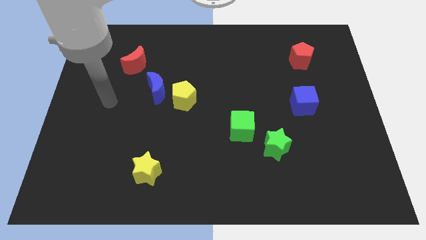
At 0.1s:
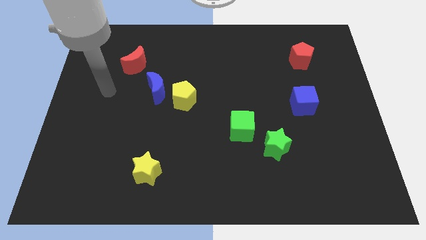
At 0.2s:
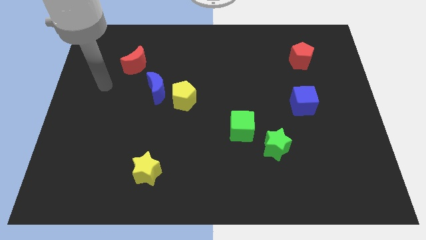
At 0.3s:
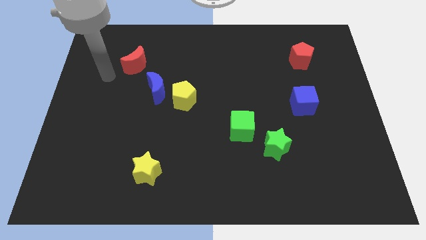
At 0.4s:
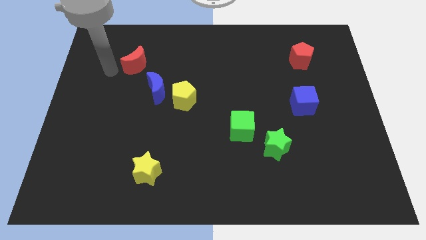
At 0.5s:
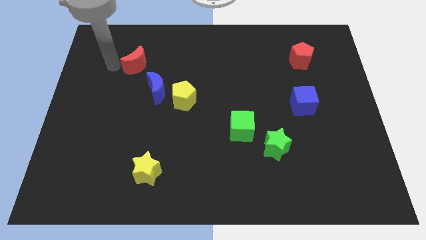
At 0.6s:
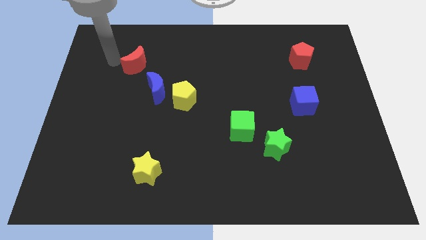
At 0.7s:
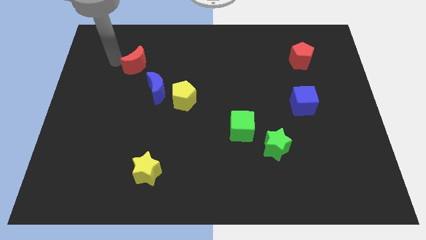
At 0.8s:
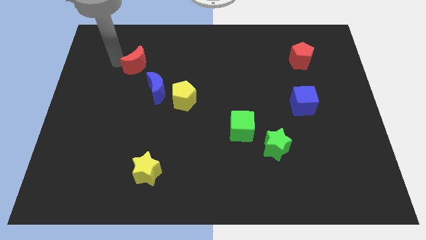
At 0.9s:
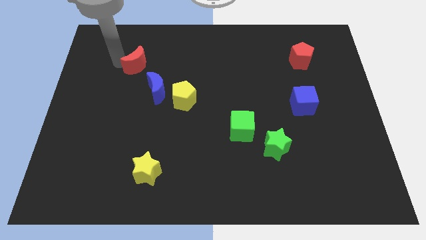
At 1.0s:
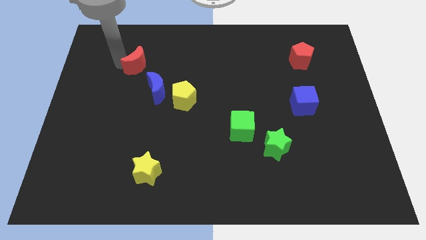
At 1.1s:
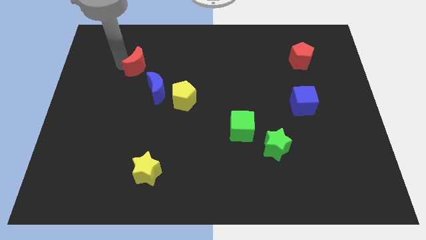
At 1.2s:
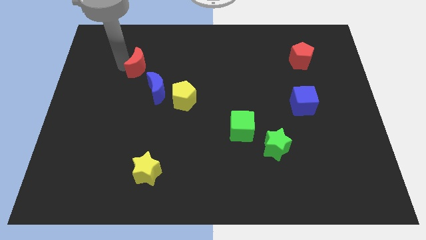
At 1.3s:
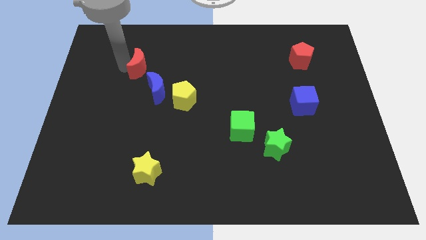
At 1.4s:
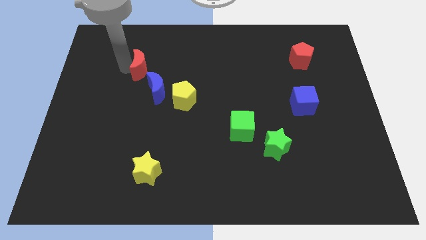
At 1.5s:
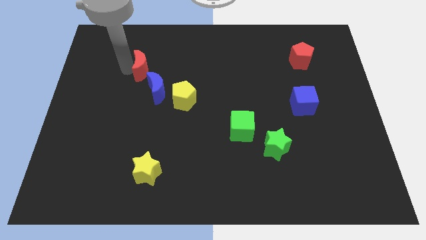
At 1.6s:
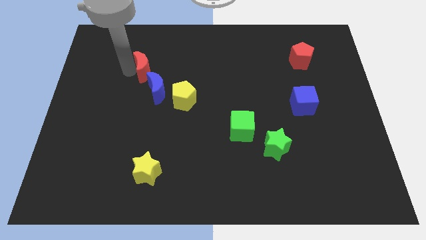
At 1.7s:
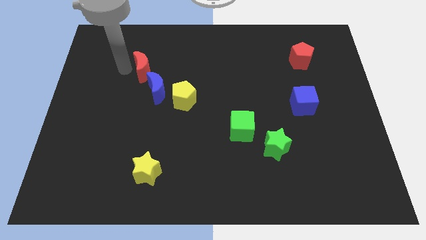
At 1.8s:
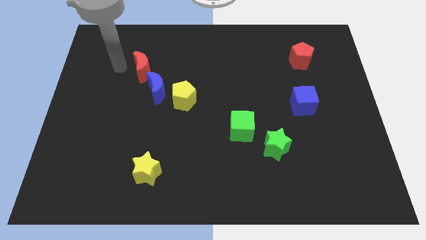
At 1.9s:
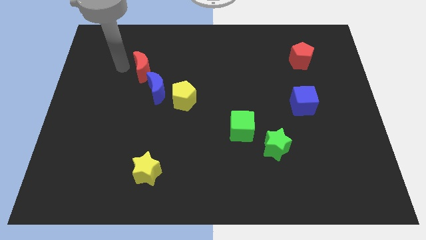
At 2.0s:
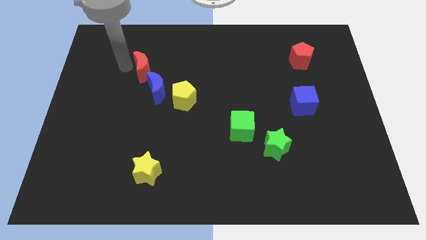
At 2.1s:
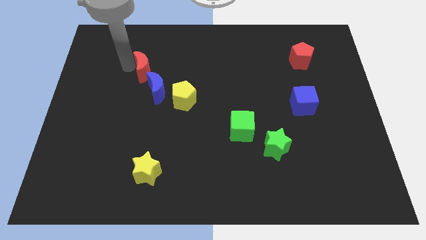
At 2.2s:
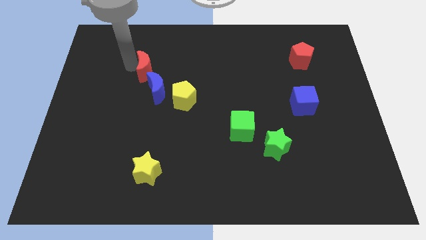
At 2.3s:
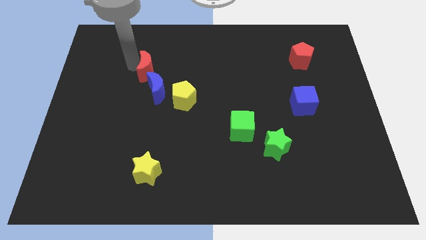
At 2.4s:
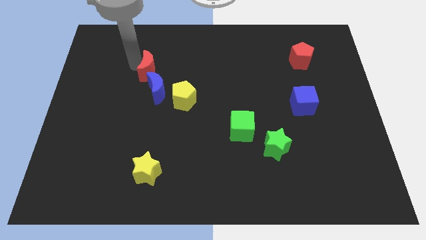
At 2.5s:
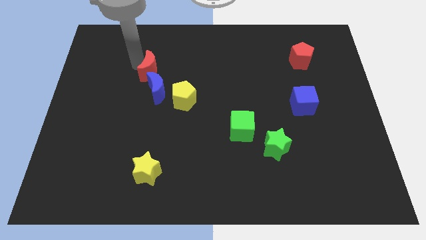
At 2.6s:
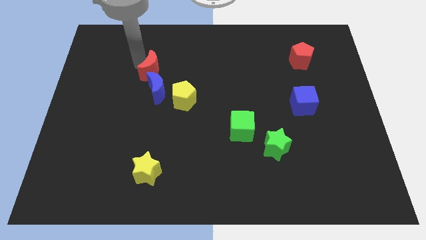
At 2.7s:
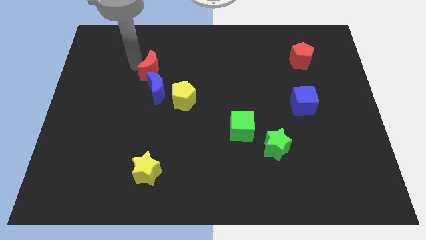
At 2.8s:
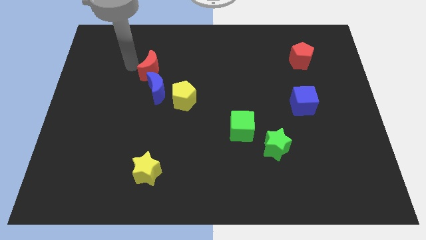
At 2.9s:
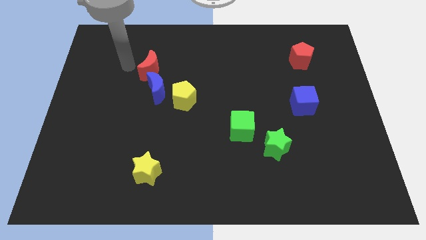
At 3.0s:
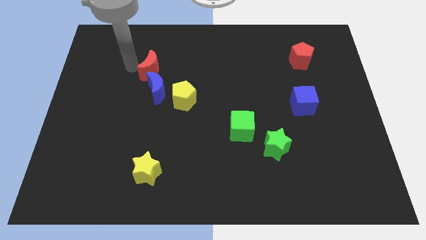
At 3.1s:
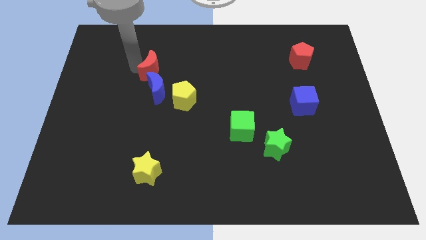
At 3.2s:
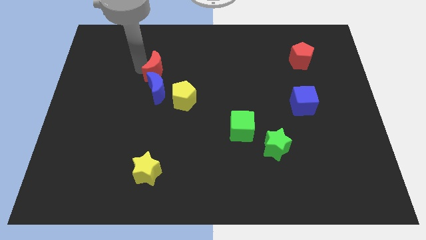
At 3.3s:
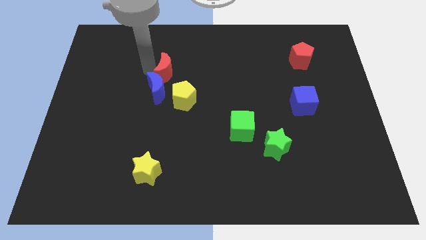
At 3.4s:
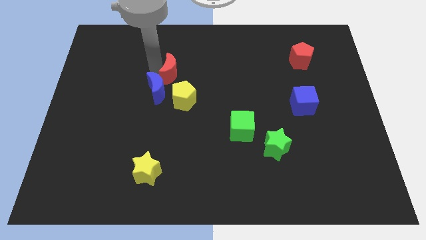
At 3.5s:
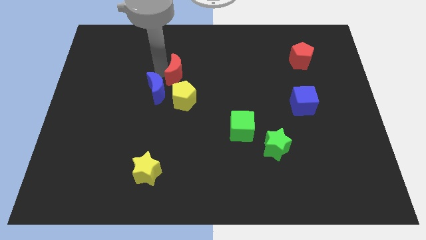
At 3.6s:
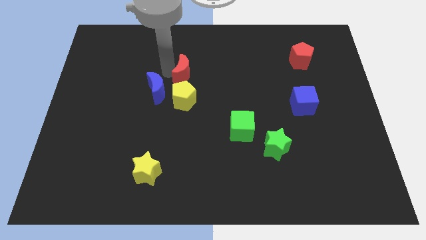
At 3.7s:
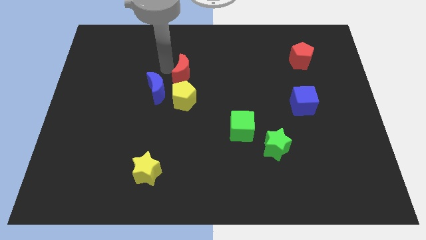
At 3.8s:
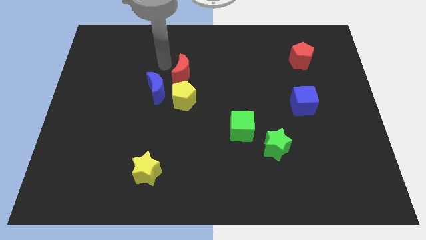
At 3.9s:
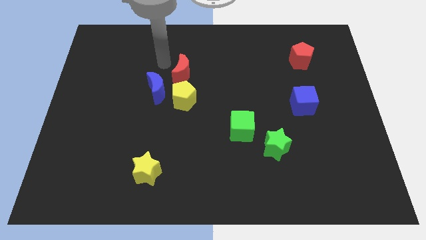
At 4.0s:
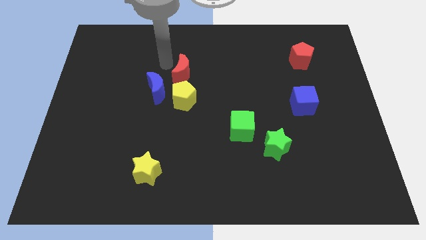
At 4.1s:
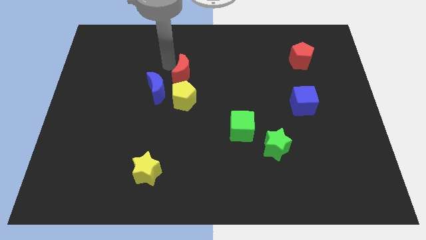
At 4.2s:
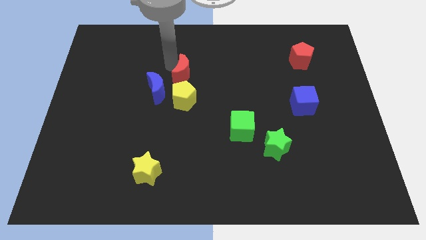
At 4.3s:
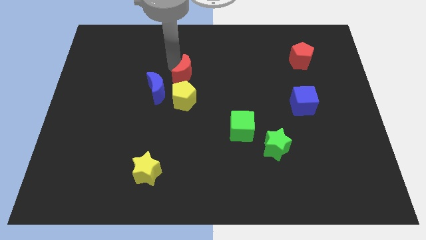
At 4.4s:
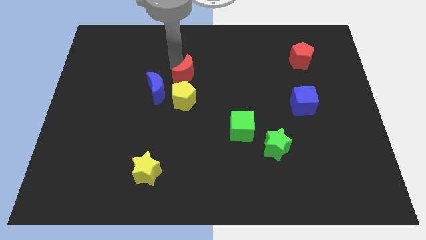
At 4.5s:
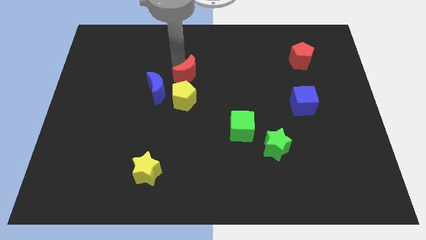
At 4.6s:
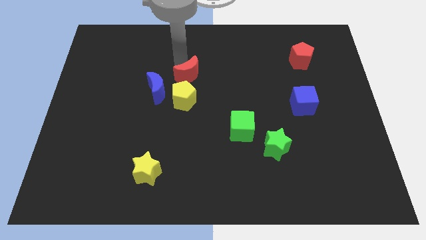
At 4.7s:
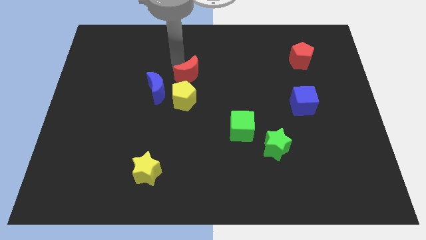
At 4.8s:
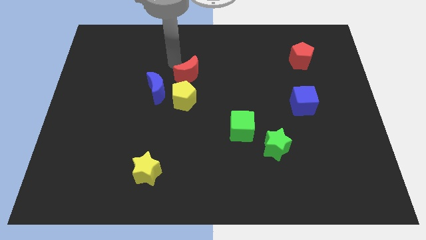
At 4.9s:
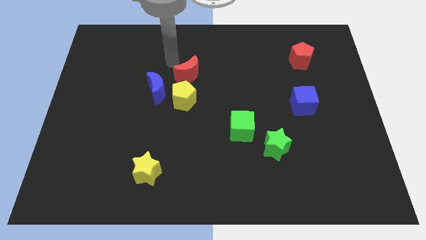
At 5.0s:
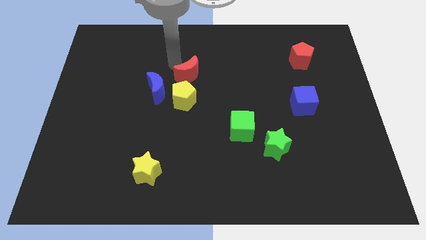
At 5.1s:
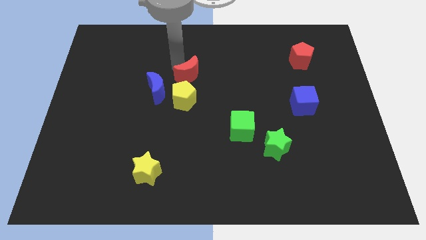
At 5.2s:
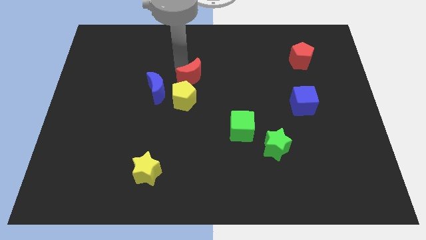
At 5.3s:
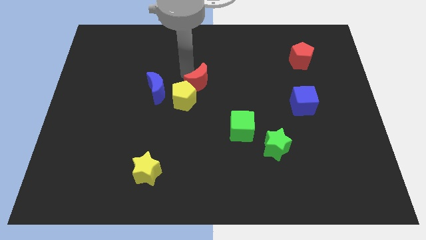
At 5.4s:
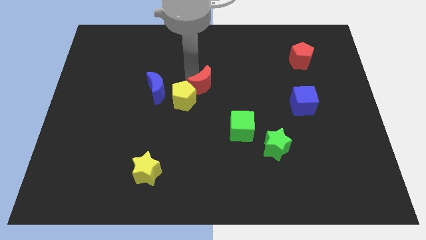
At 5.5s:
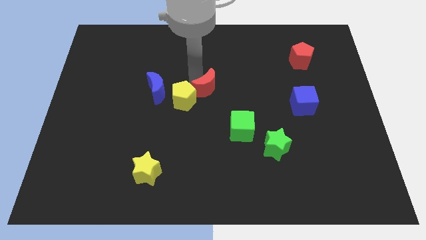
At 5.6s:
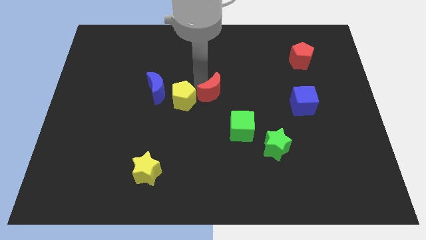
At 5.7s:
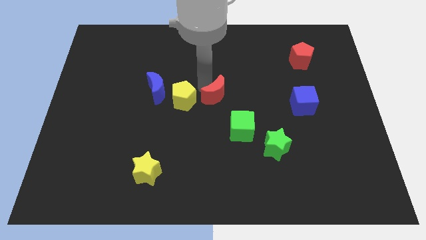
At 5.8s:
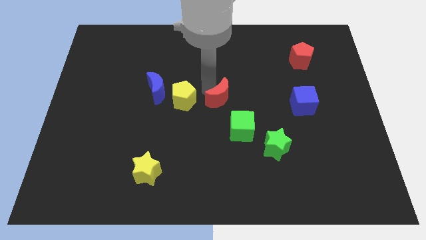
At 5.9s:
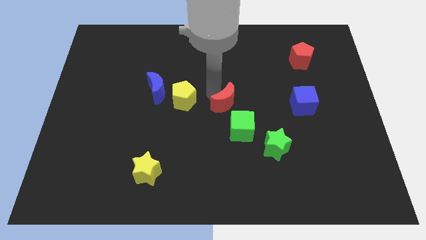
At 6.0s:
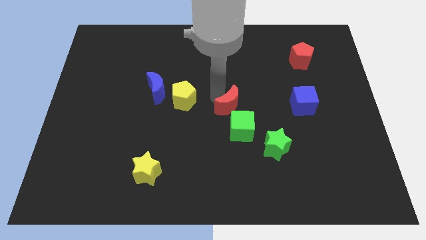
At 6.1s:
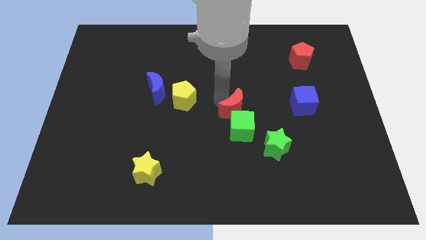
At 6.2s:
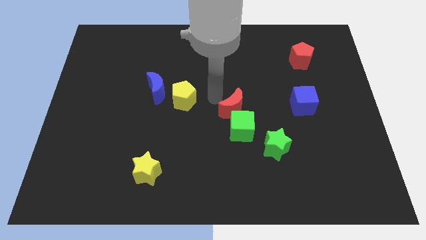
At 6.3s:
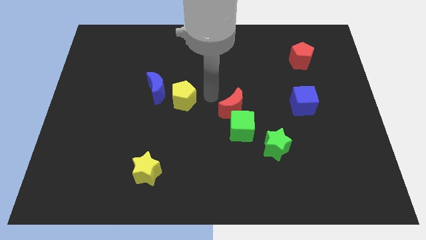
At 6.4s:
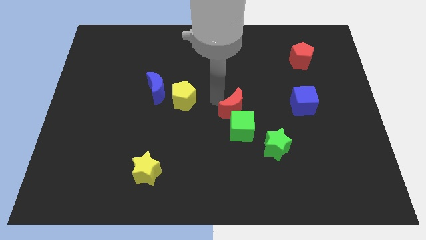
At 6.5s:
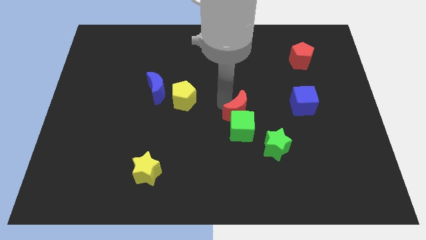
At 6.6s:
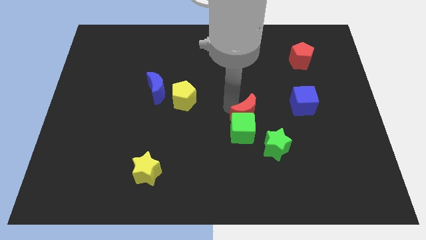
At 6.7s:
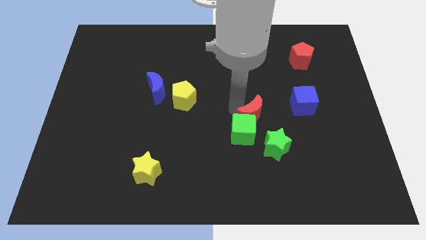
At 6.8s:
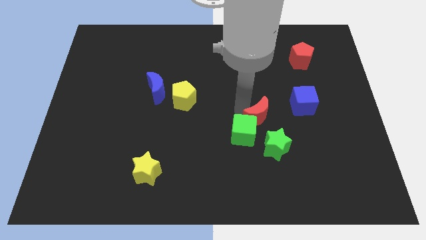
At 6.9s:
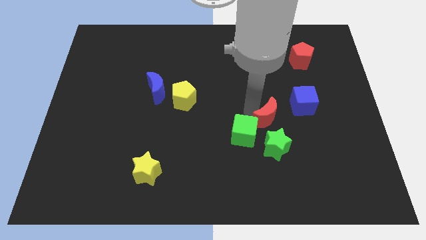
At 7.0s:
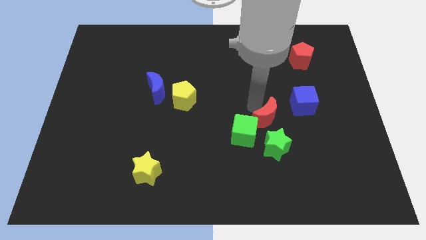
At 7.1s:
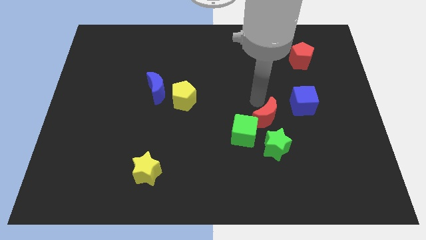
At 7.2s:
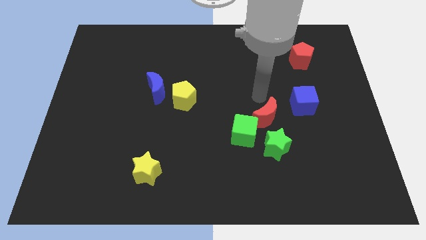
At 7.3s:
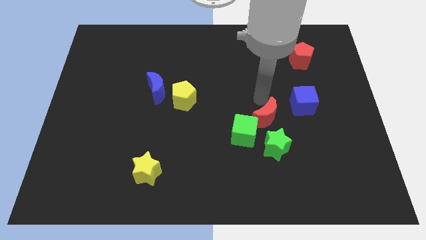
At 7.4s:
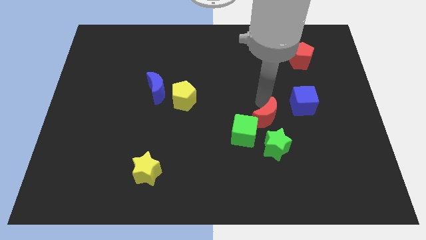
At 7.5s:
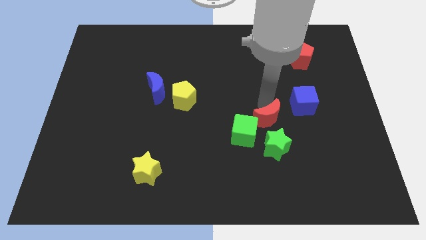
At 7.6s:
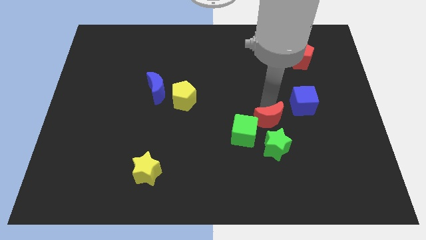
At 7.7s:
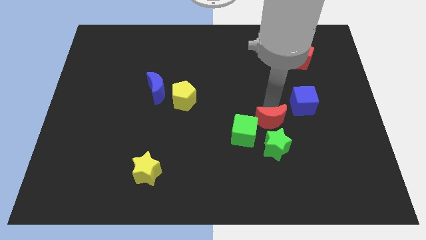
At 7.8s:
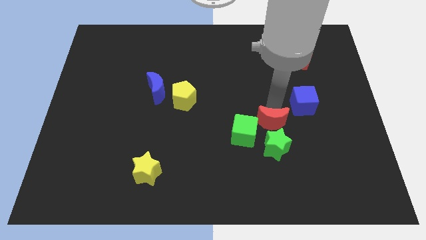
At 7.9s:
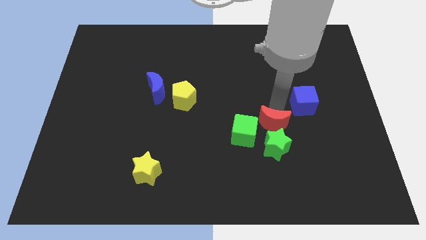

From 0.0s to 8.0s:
put the red moon next to the green star
